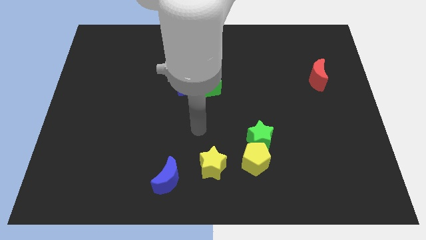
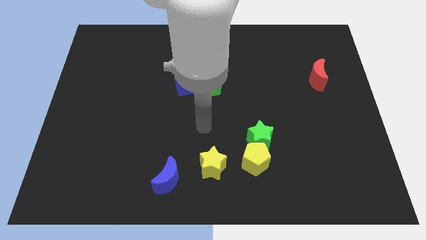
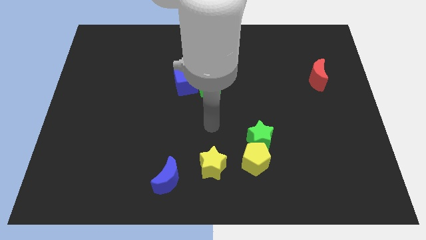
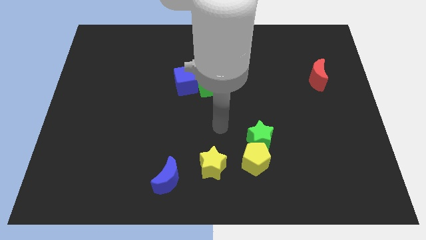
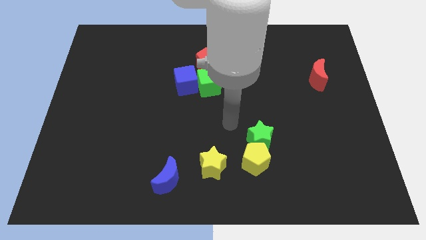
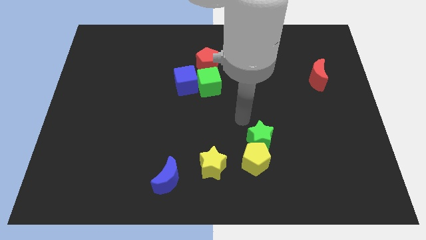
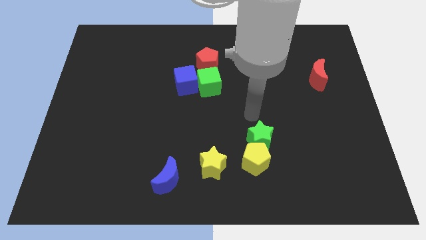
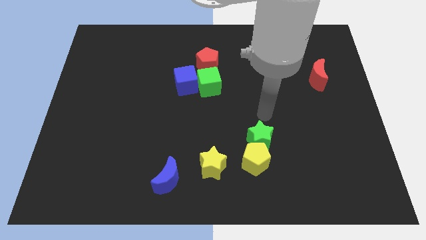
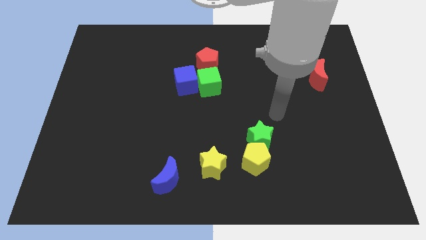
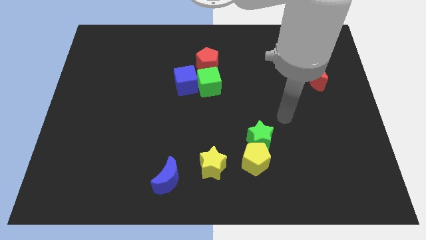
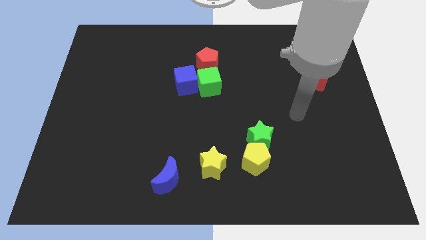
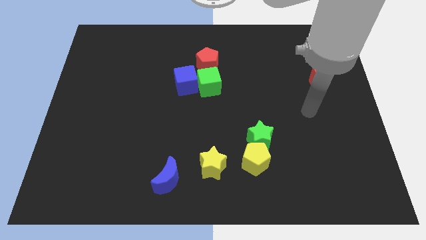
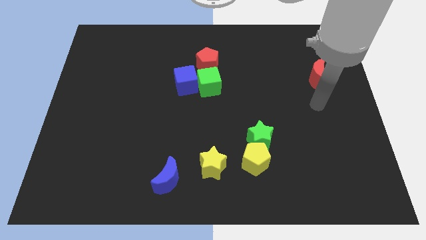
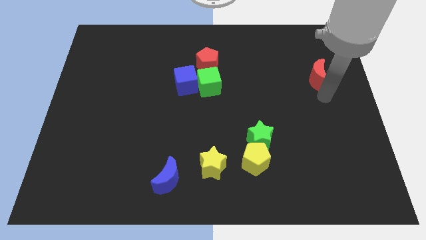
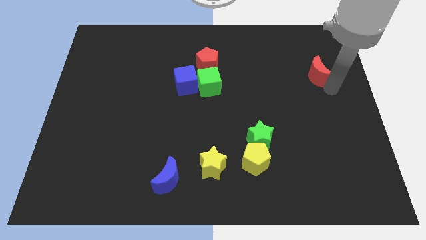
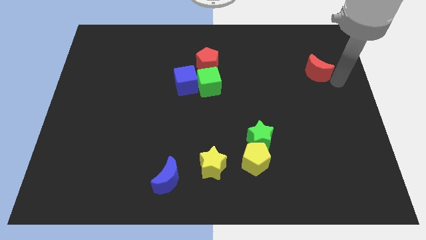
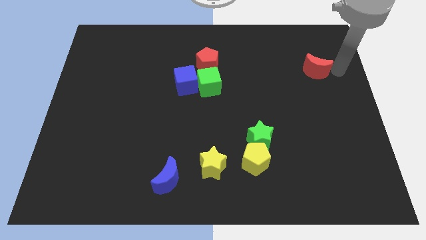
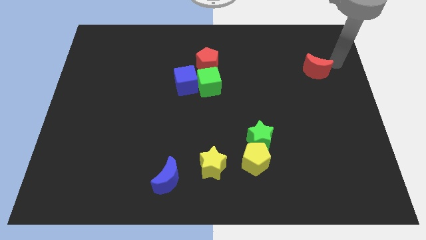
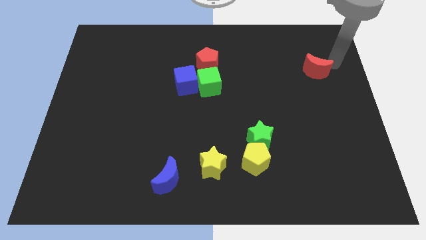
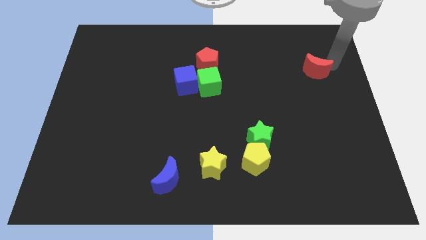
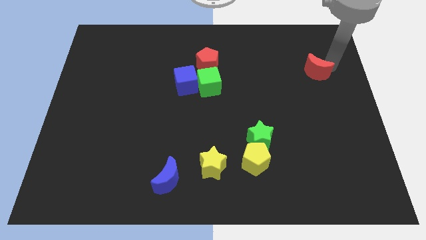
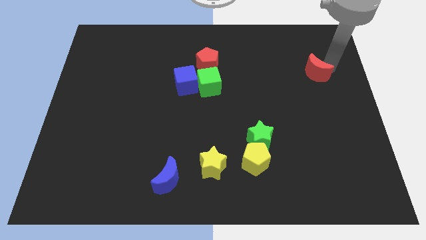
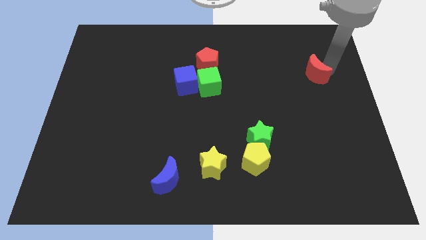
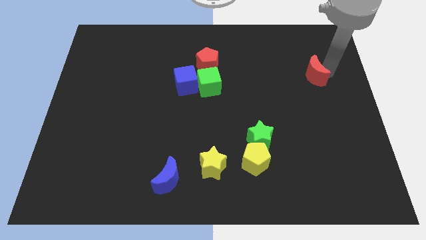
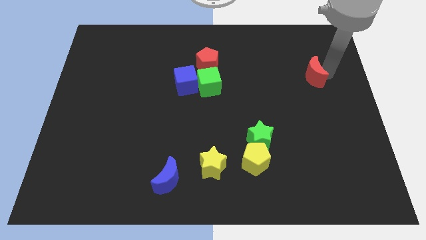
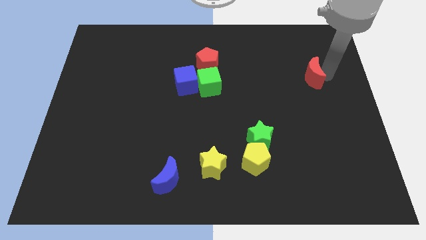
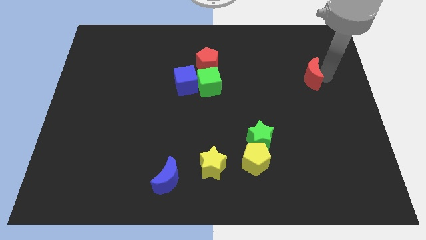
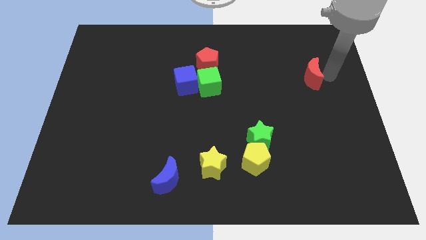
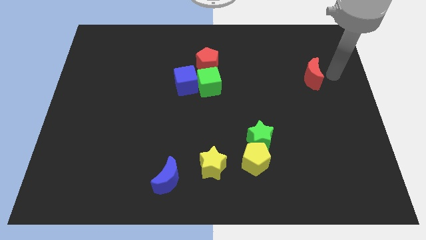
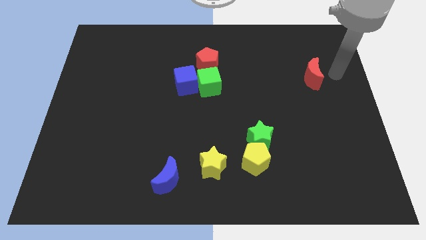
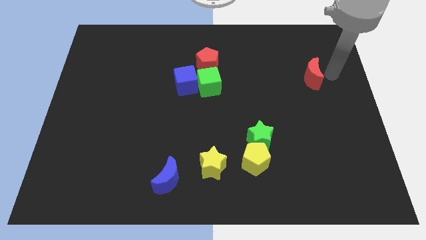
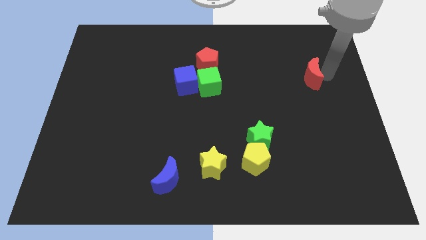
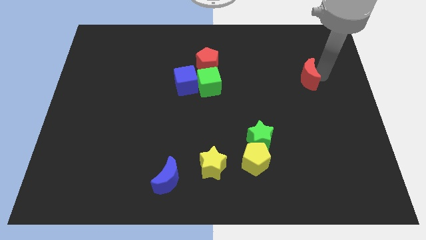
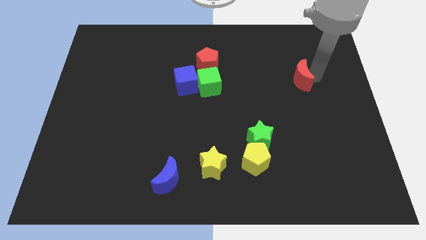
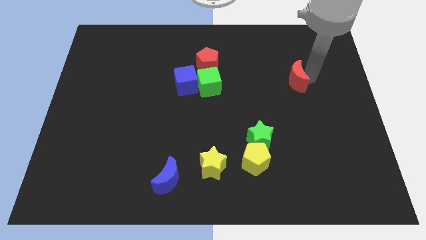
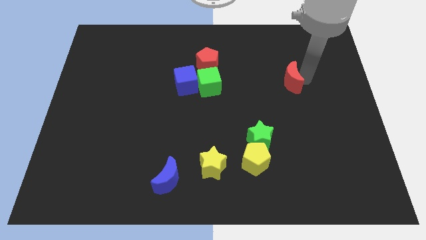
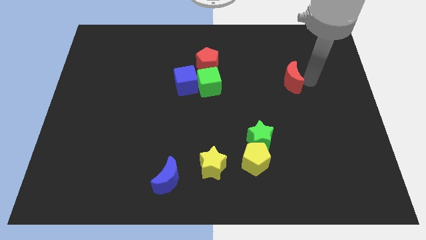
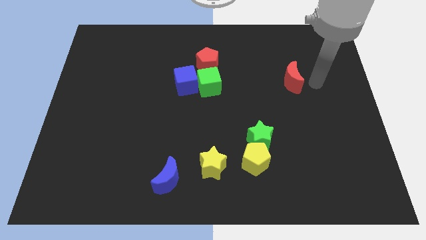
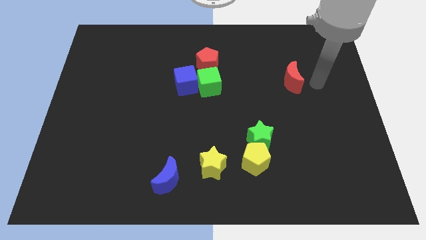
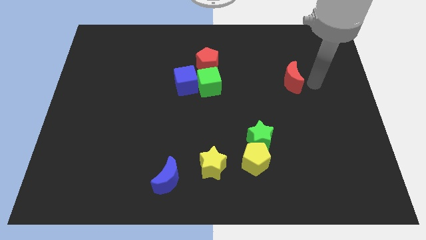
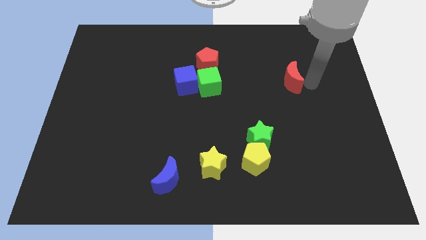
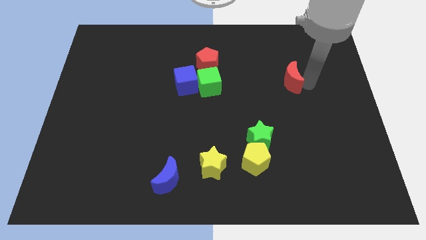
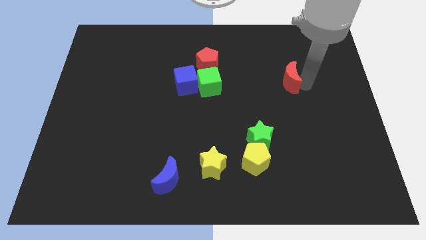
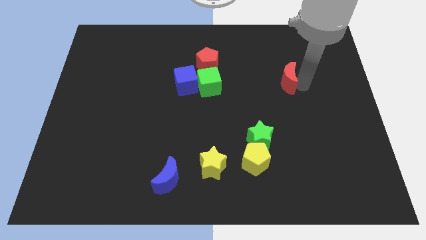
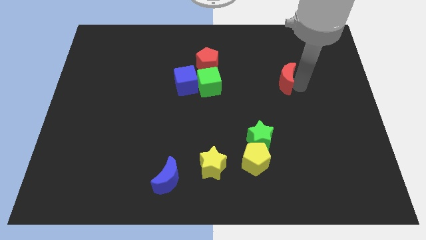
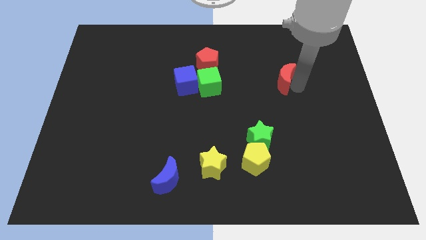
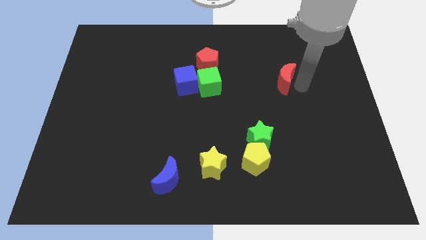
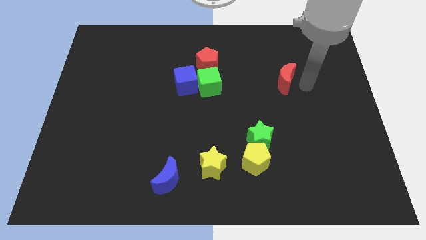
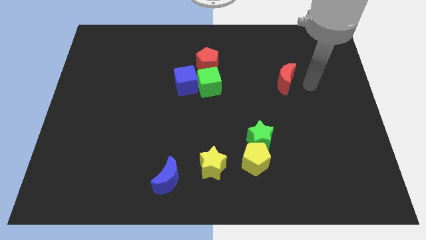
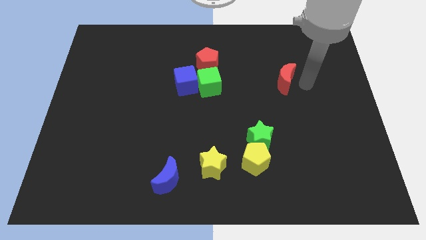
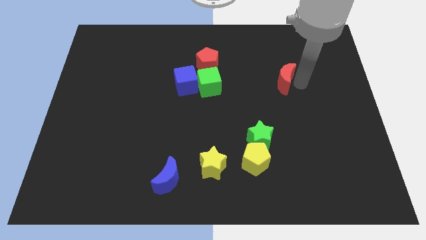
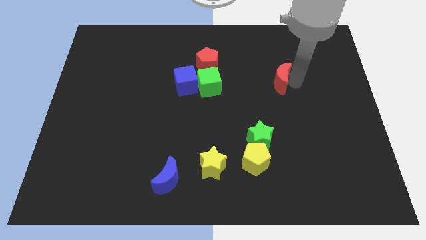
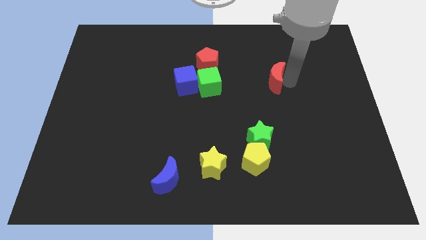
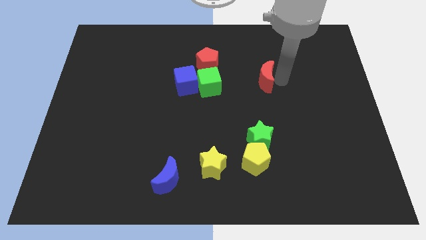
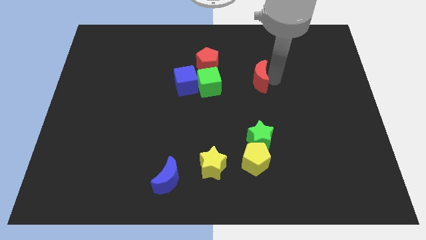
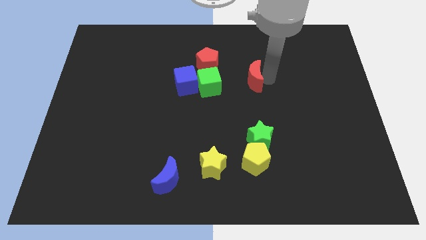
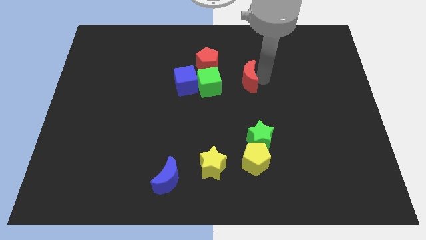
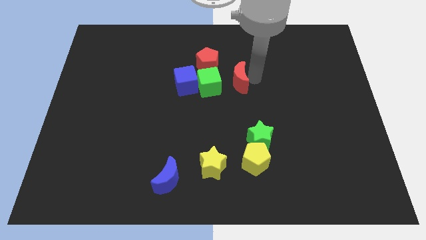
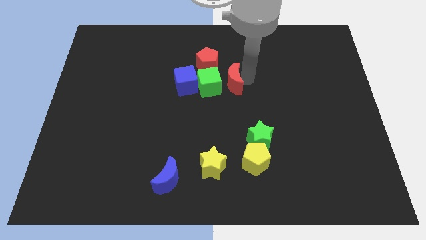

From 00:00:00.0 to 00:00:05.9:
move the red moon next to the green cube

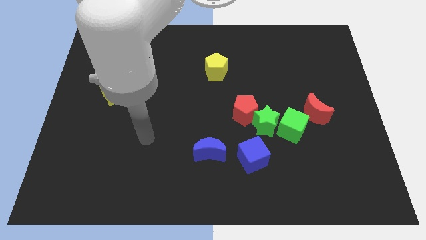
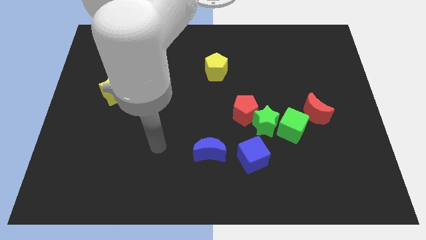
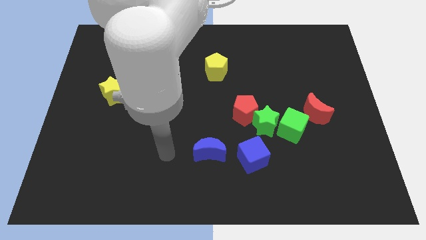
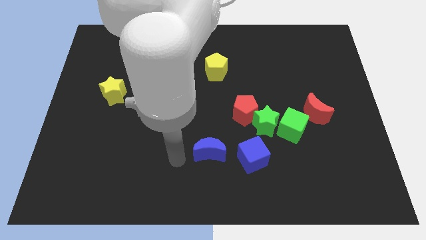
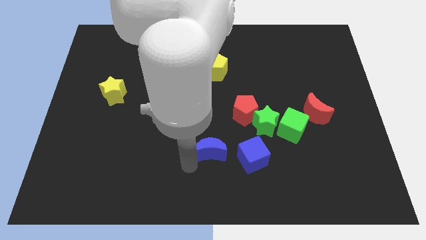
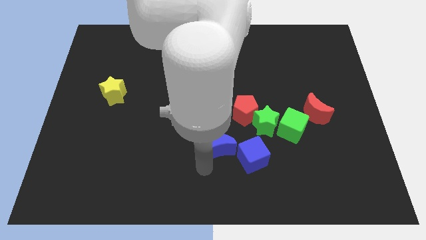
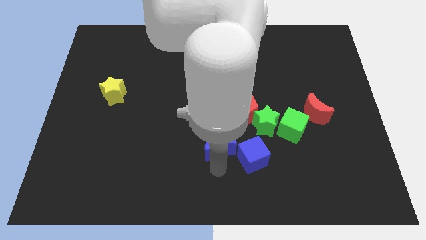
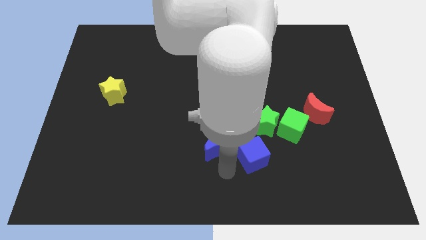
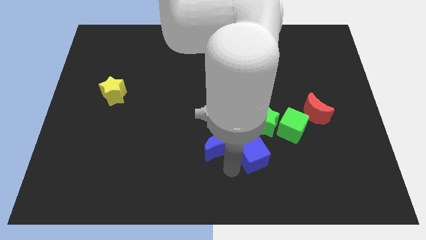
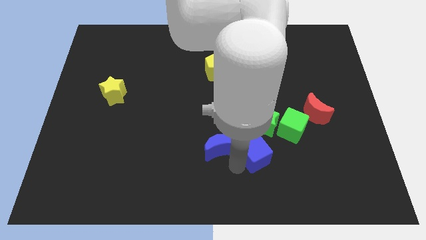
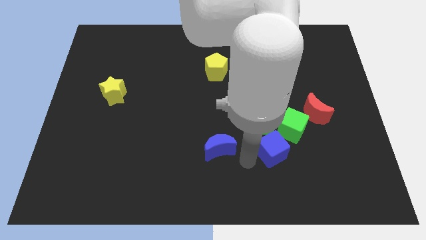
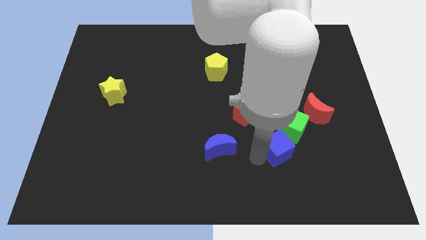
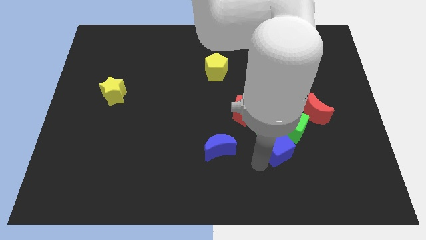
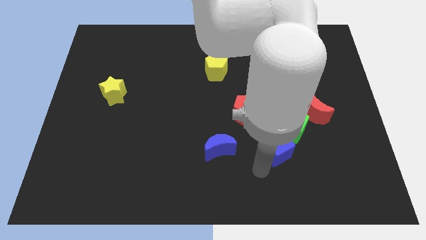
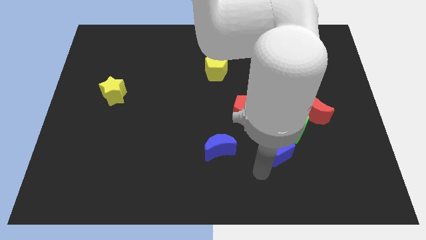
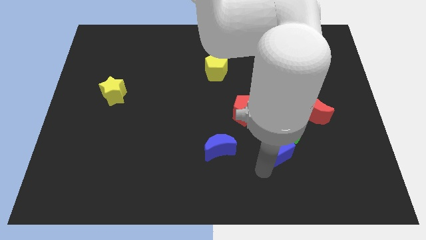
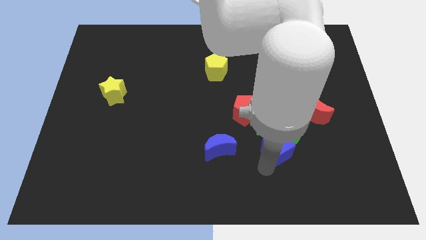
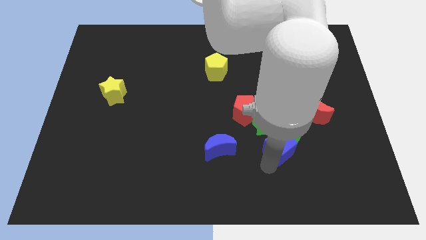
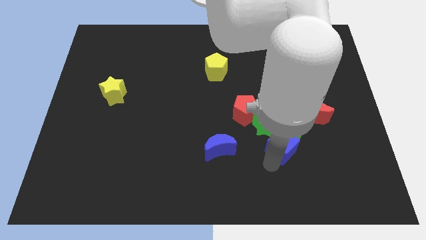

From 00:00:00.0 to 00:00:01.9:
push the blue cube to the green cube
